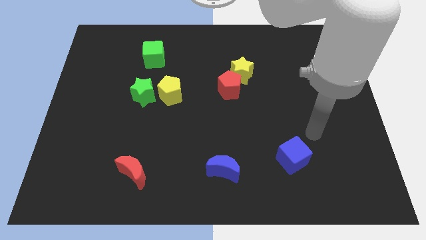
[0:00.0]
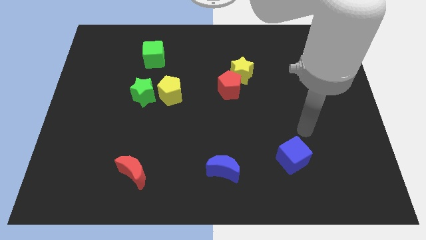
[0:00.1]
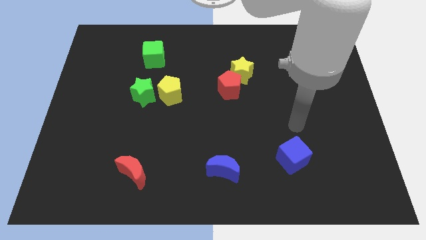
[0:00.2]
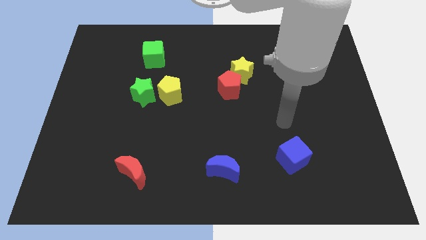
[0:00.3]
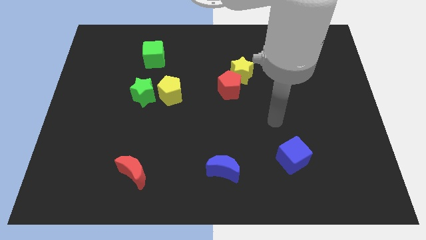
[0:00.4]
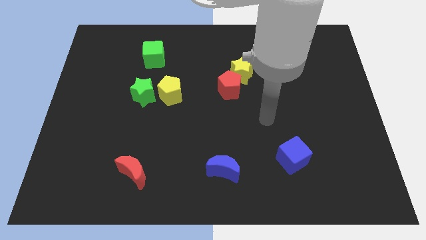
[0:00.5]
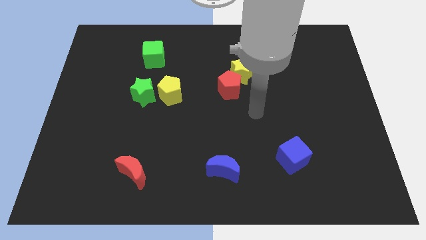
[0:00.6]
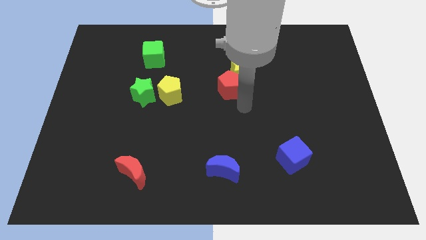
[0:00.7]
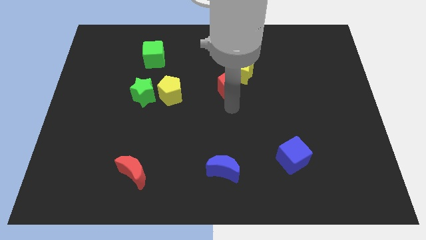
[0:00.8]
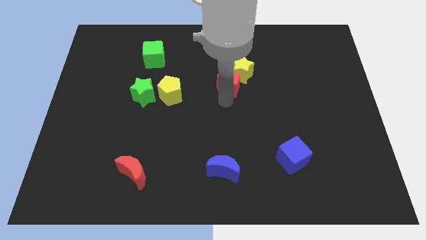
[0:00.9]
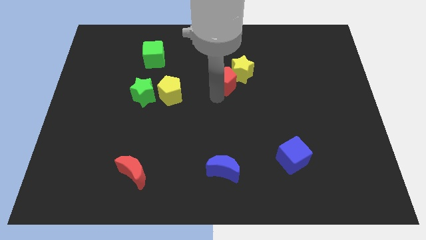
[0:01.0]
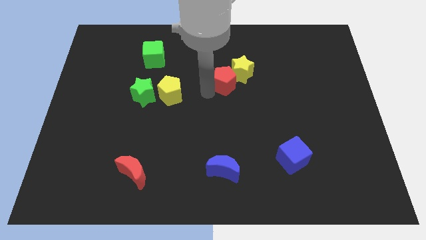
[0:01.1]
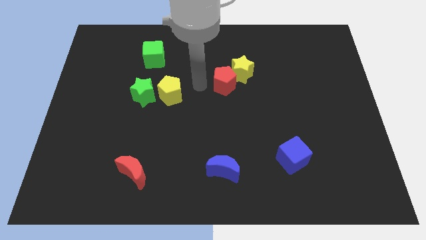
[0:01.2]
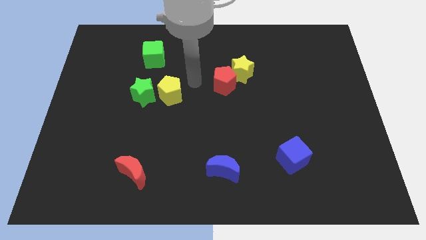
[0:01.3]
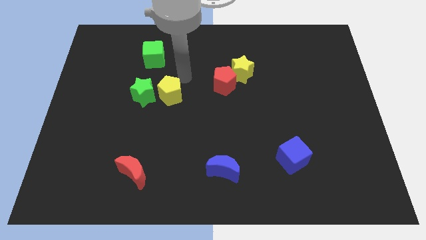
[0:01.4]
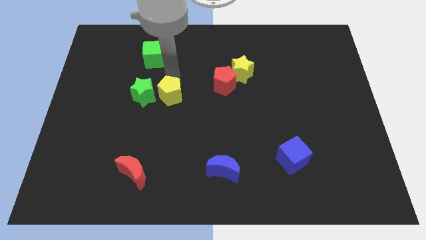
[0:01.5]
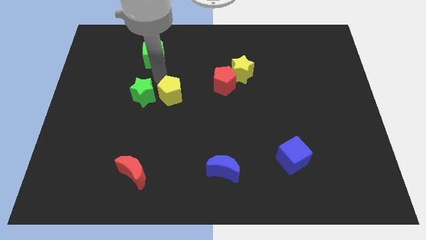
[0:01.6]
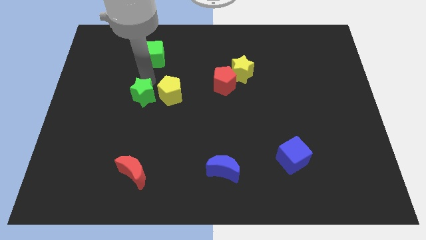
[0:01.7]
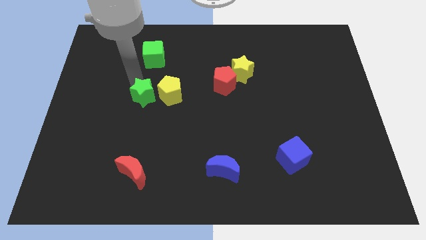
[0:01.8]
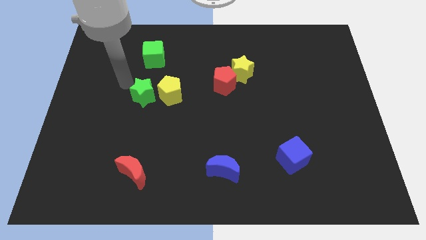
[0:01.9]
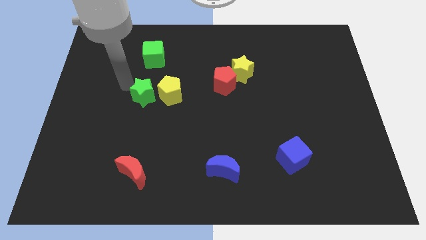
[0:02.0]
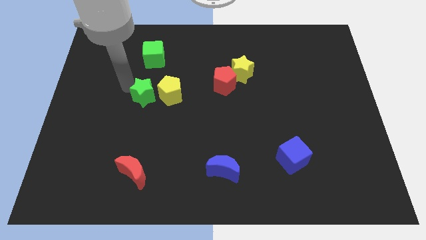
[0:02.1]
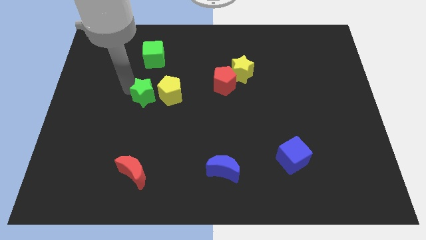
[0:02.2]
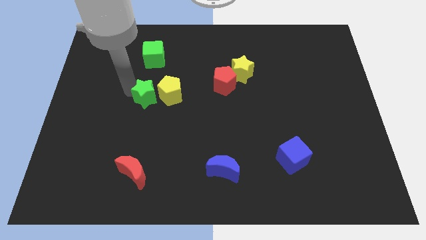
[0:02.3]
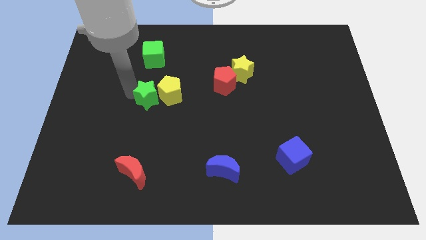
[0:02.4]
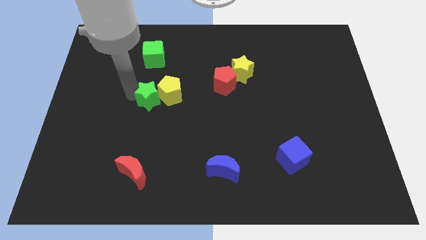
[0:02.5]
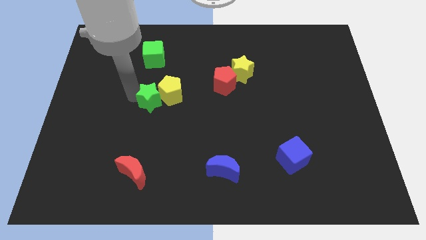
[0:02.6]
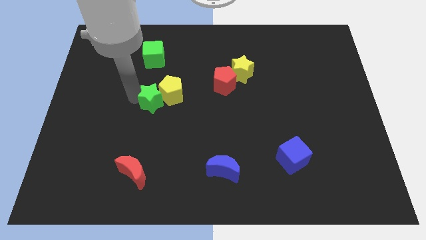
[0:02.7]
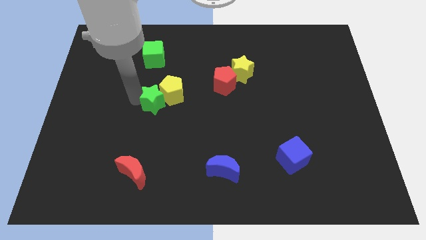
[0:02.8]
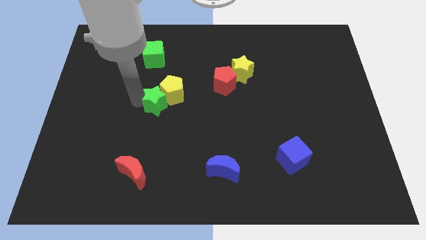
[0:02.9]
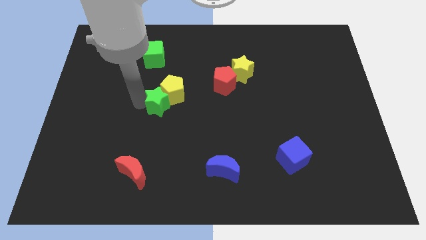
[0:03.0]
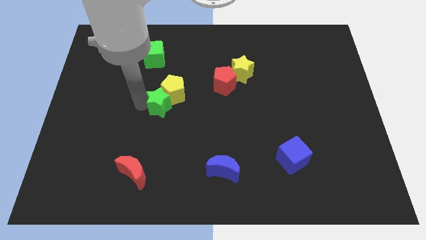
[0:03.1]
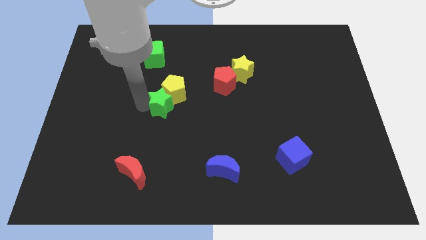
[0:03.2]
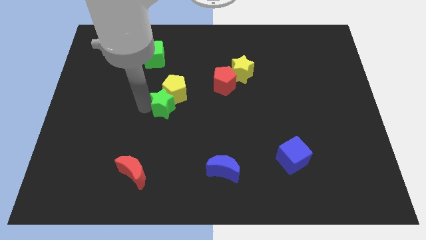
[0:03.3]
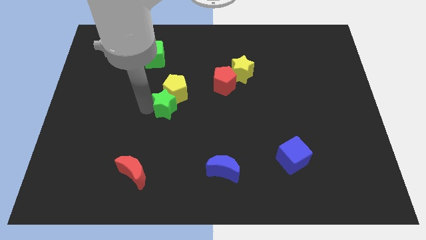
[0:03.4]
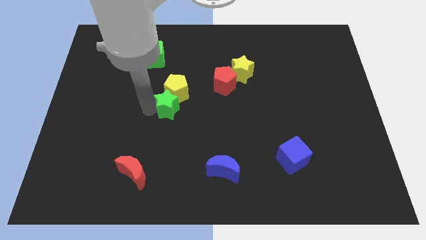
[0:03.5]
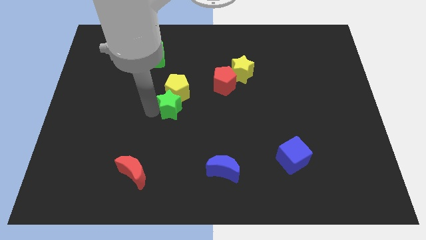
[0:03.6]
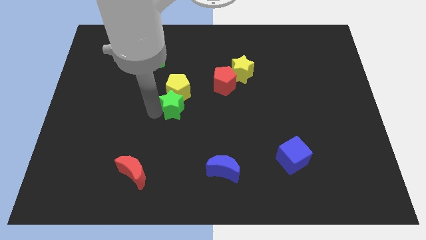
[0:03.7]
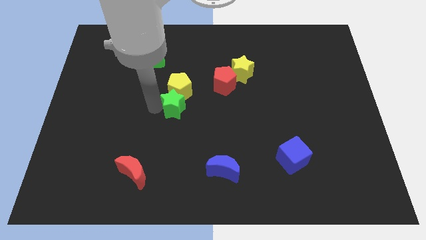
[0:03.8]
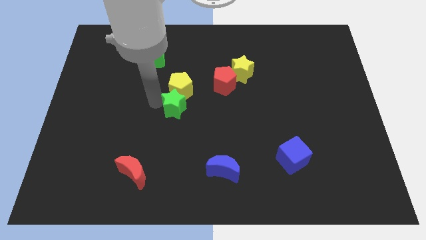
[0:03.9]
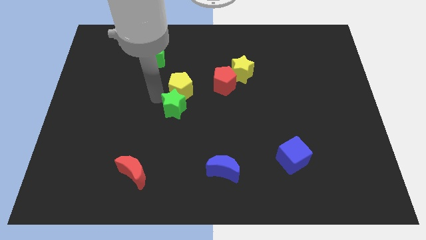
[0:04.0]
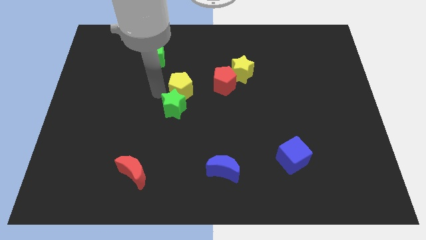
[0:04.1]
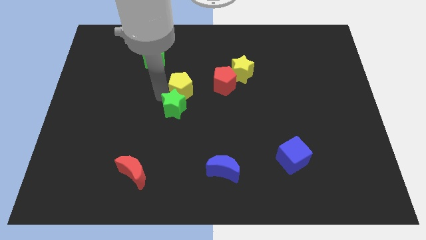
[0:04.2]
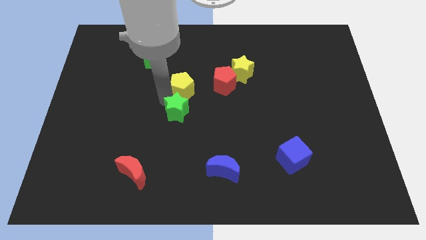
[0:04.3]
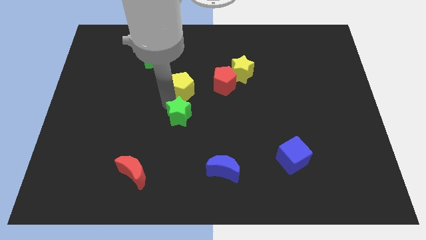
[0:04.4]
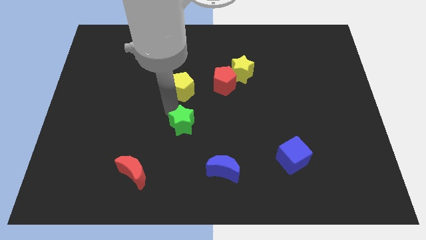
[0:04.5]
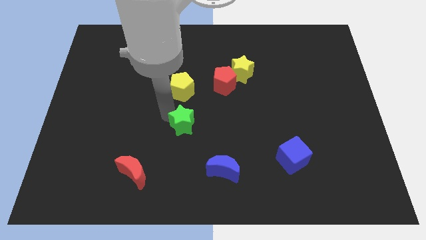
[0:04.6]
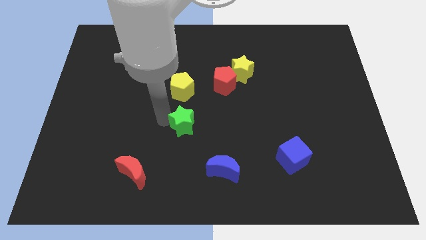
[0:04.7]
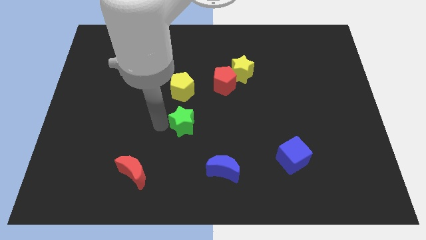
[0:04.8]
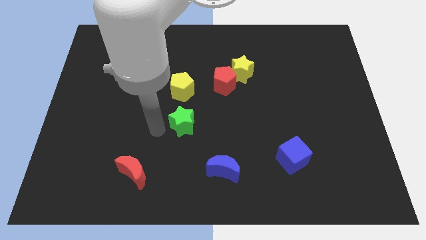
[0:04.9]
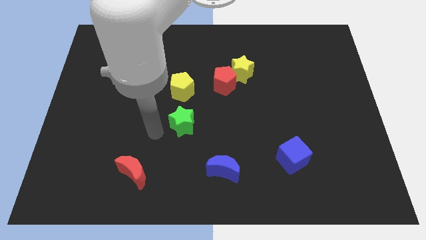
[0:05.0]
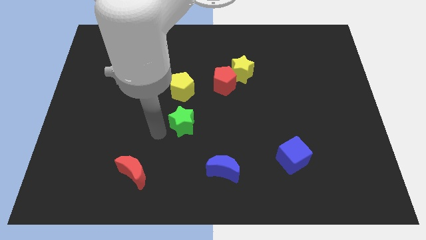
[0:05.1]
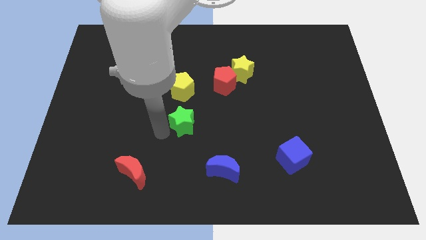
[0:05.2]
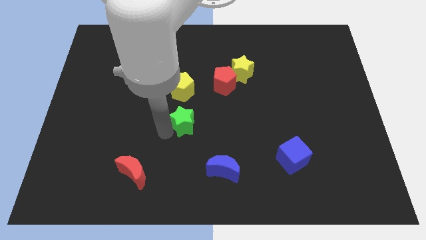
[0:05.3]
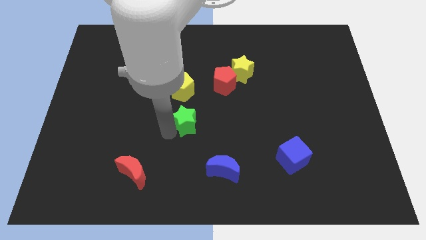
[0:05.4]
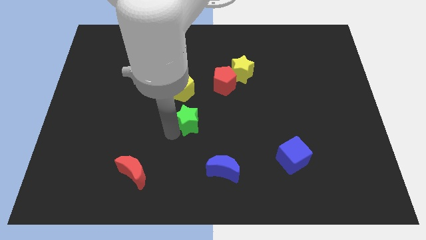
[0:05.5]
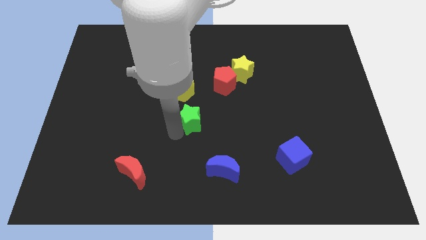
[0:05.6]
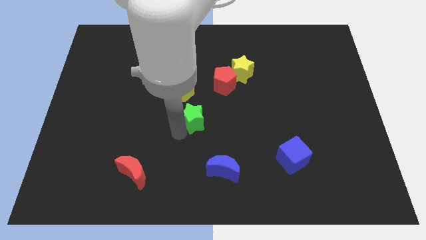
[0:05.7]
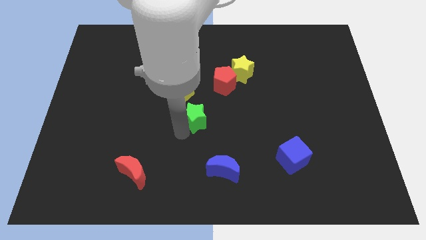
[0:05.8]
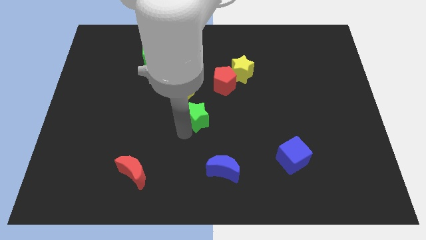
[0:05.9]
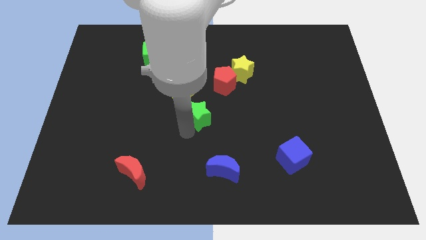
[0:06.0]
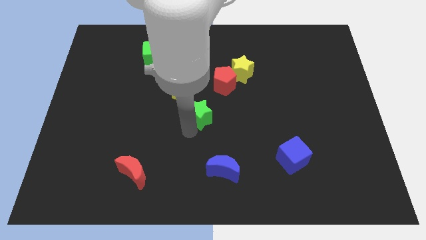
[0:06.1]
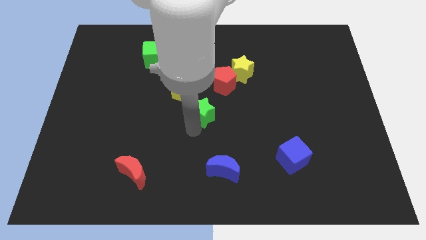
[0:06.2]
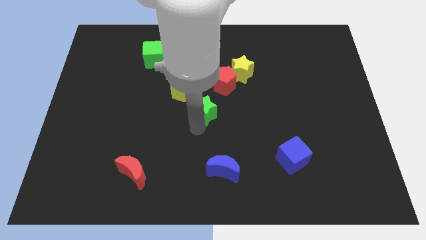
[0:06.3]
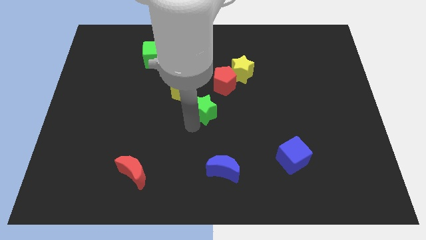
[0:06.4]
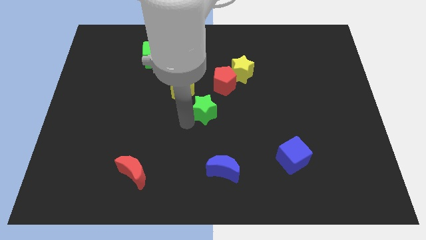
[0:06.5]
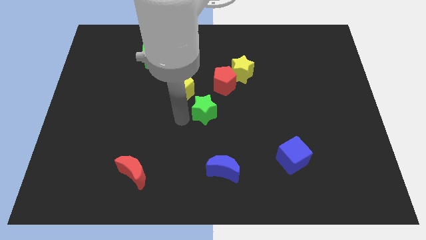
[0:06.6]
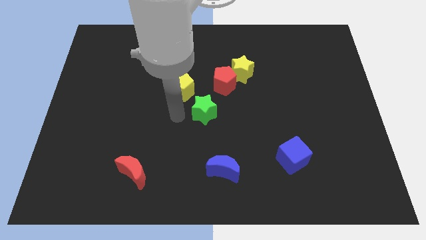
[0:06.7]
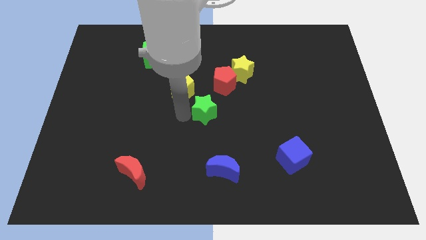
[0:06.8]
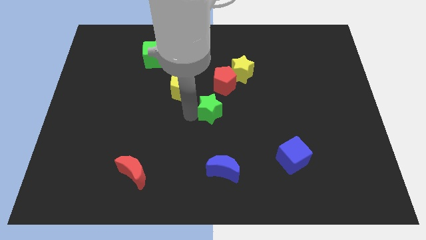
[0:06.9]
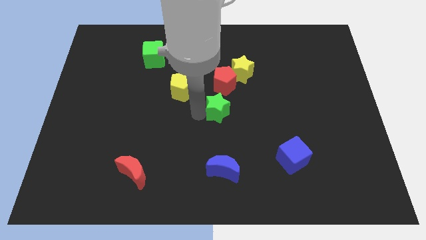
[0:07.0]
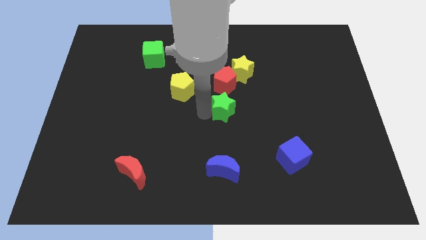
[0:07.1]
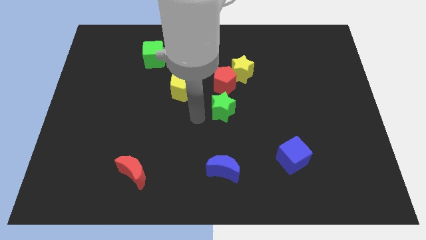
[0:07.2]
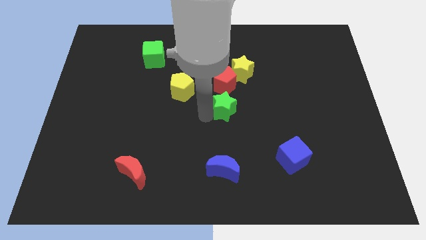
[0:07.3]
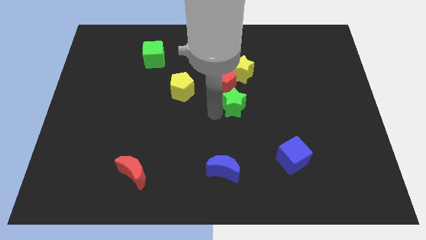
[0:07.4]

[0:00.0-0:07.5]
slide the green star to the right
